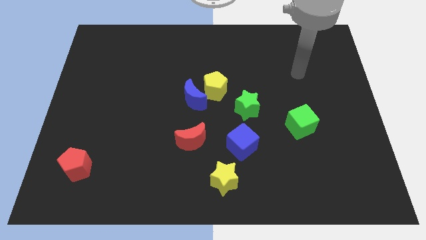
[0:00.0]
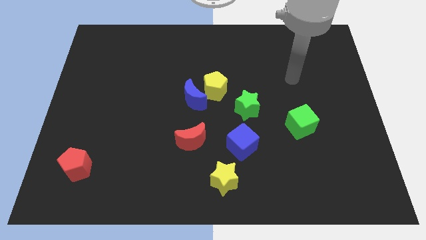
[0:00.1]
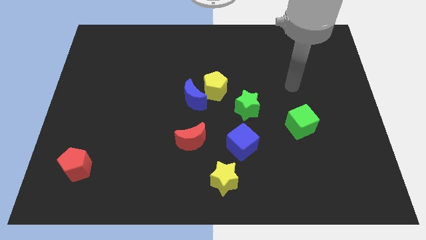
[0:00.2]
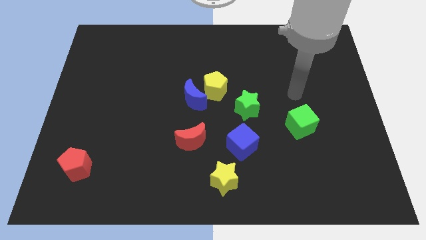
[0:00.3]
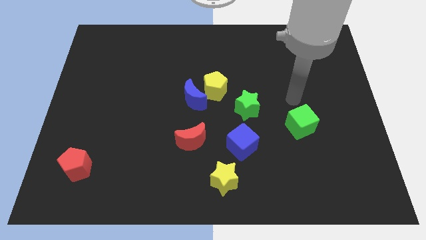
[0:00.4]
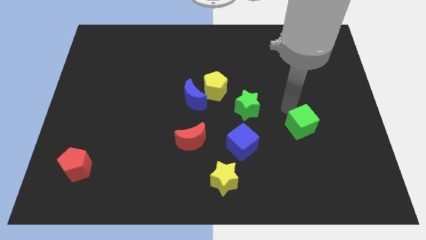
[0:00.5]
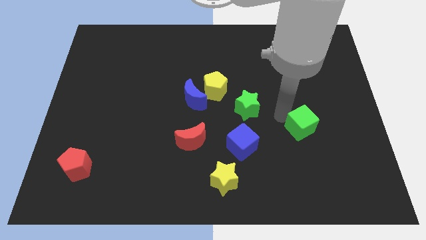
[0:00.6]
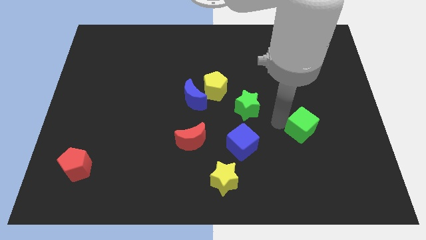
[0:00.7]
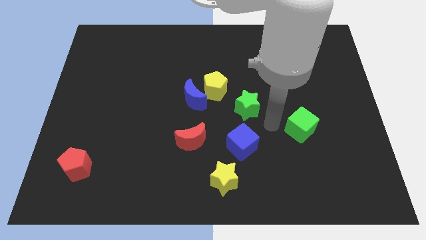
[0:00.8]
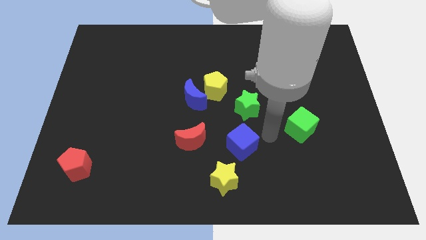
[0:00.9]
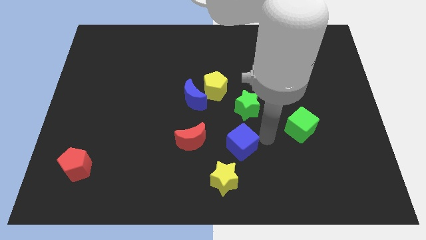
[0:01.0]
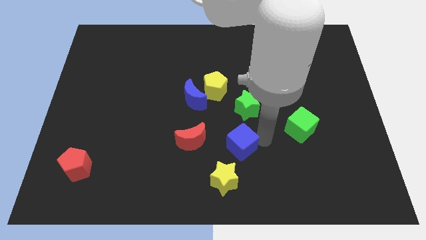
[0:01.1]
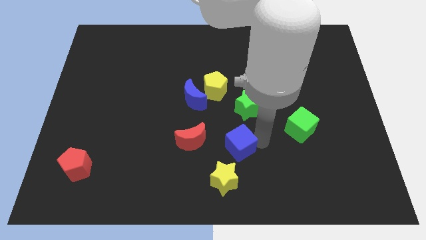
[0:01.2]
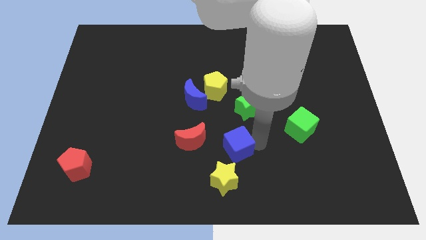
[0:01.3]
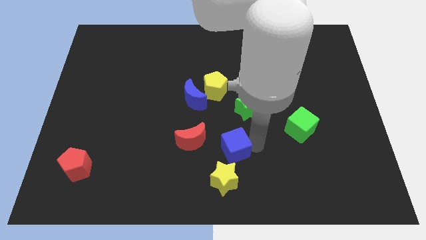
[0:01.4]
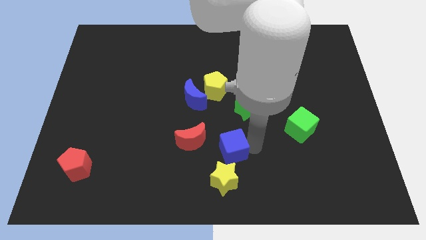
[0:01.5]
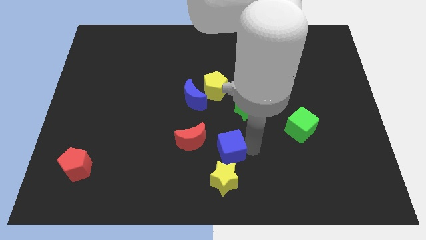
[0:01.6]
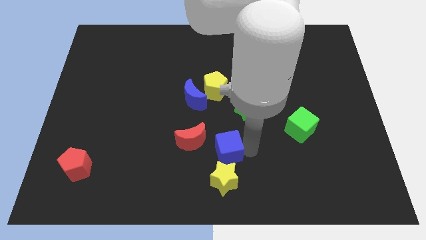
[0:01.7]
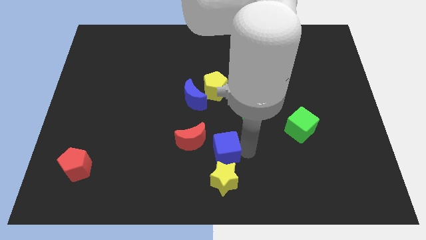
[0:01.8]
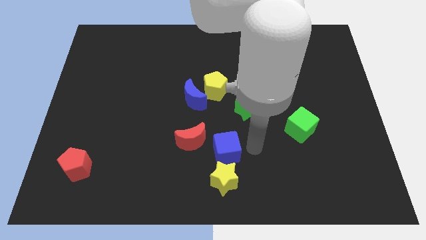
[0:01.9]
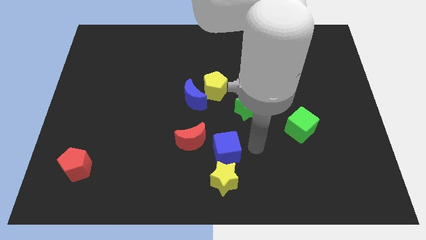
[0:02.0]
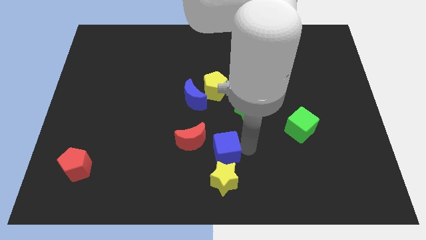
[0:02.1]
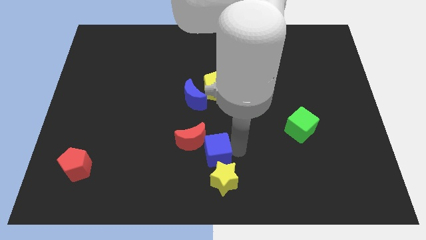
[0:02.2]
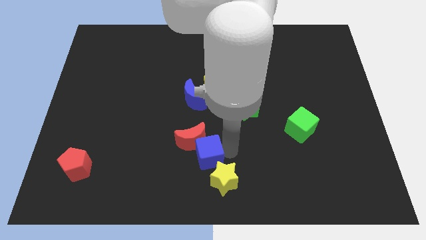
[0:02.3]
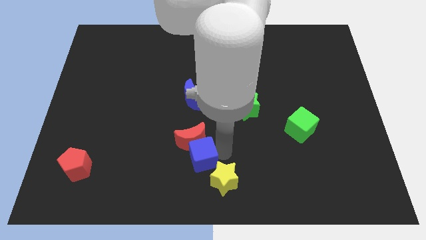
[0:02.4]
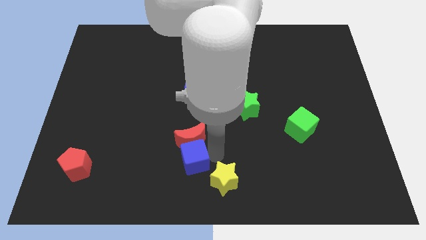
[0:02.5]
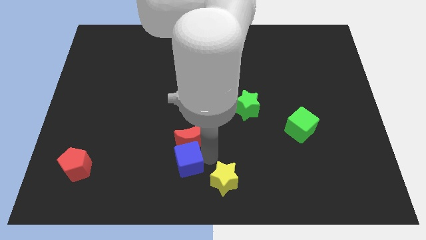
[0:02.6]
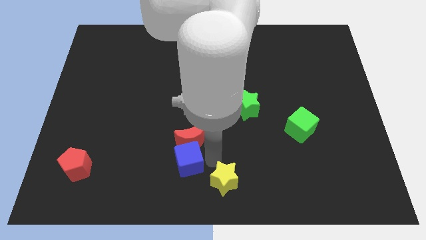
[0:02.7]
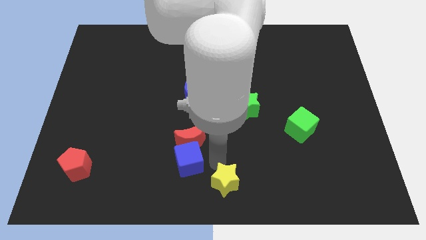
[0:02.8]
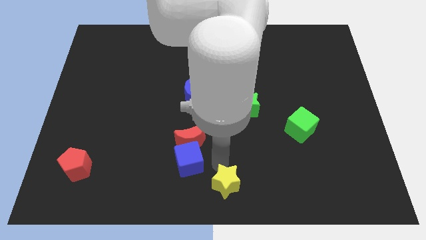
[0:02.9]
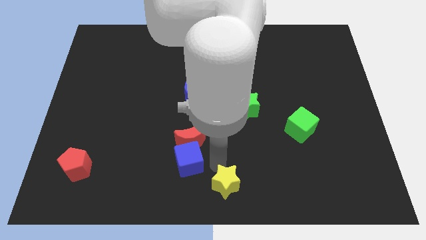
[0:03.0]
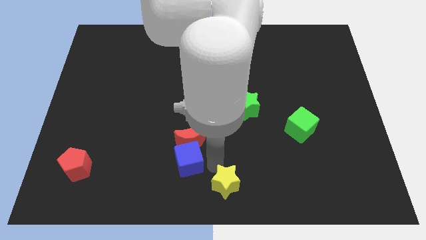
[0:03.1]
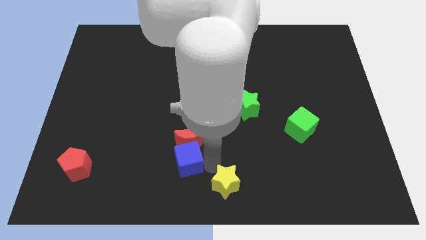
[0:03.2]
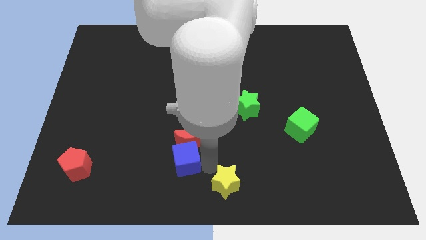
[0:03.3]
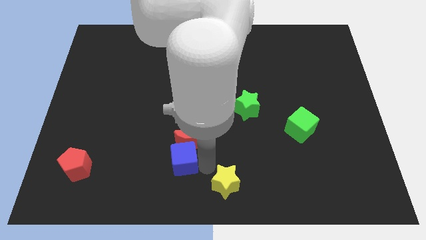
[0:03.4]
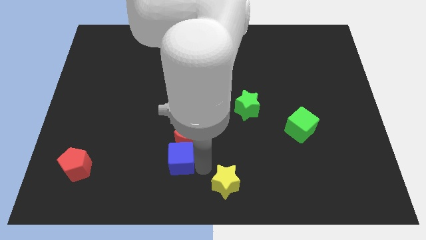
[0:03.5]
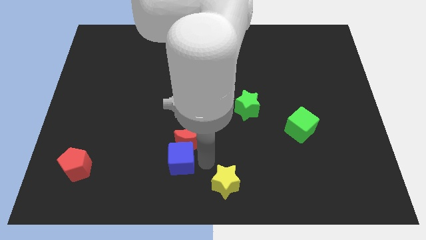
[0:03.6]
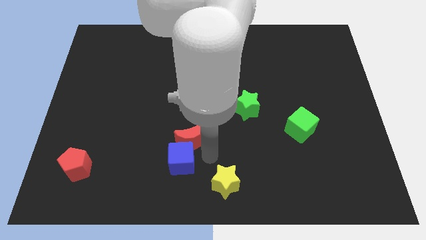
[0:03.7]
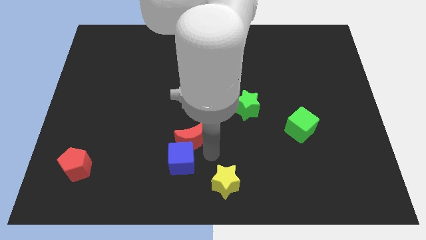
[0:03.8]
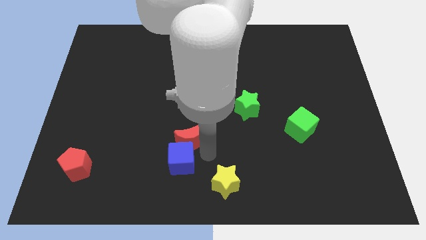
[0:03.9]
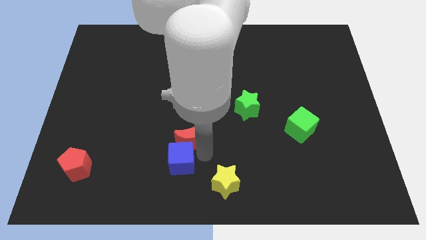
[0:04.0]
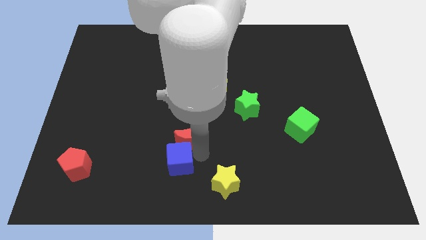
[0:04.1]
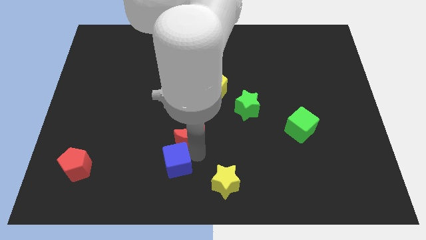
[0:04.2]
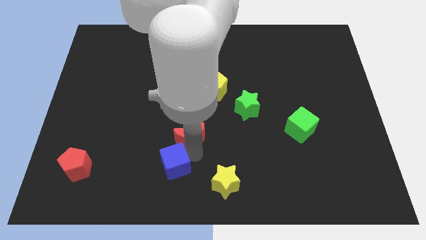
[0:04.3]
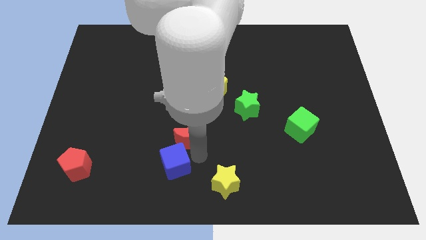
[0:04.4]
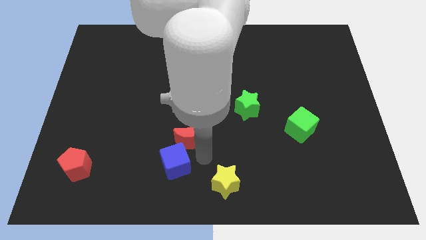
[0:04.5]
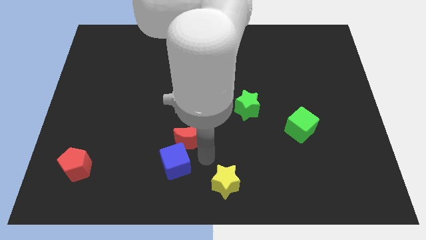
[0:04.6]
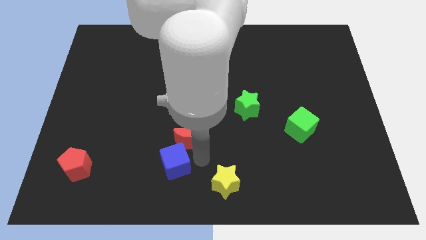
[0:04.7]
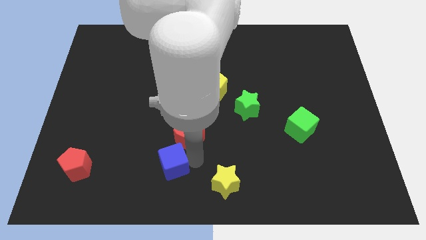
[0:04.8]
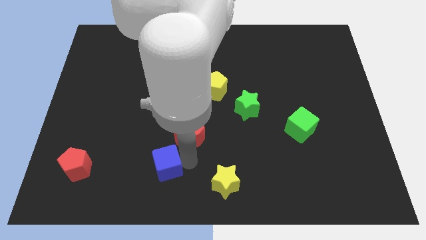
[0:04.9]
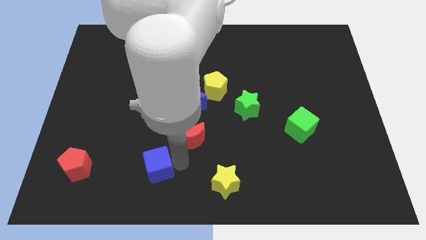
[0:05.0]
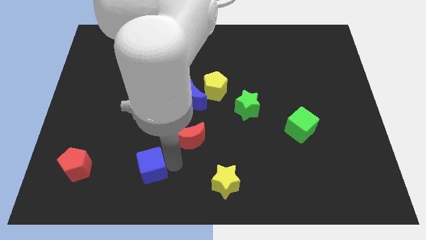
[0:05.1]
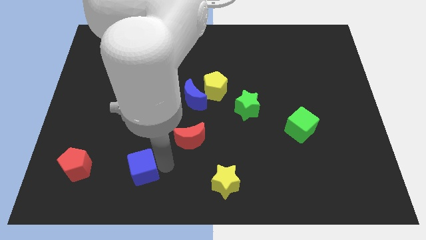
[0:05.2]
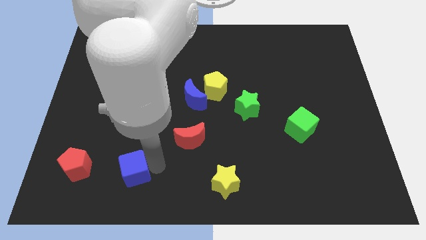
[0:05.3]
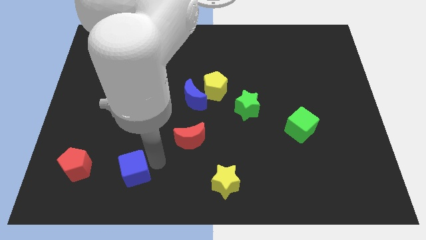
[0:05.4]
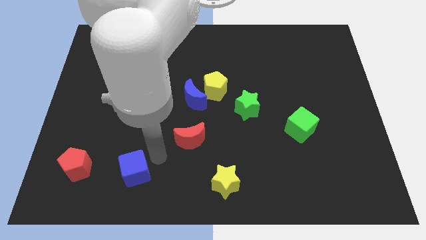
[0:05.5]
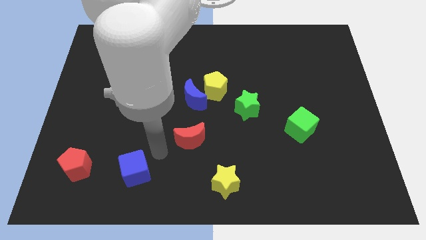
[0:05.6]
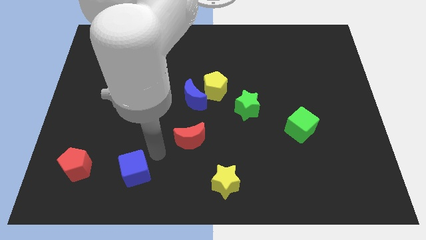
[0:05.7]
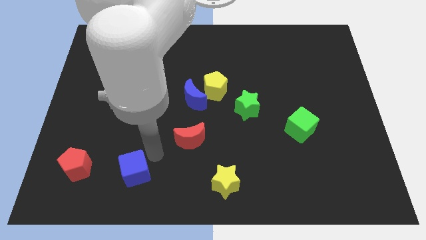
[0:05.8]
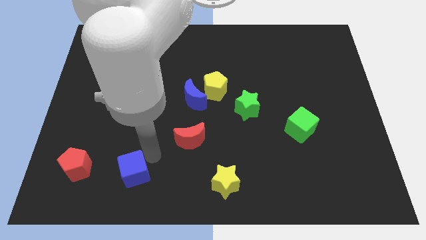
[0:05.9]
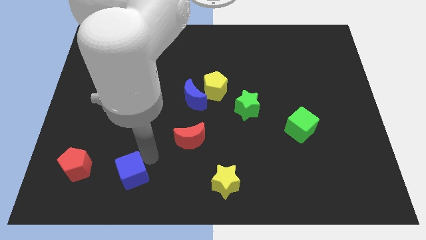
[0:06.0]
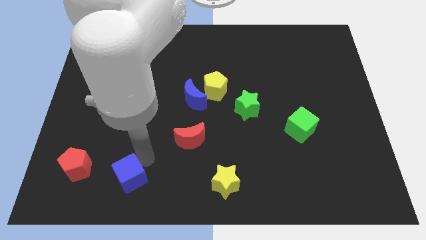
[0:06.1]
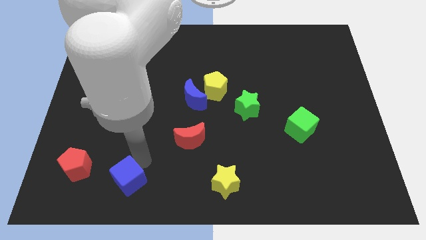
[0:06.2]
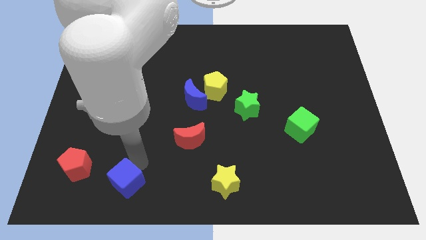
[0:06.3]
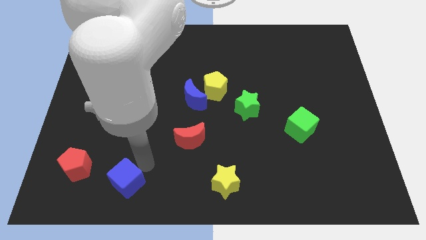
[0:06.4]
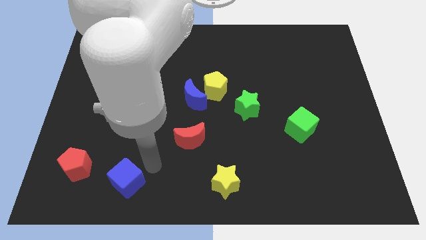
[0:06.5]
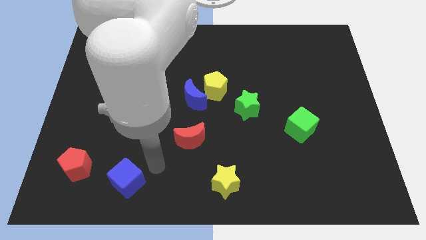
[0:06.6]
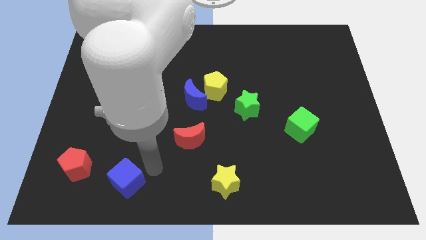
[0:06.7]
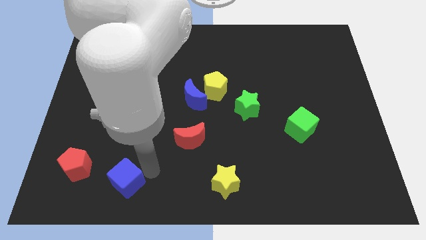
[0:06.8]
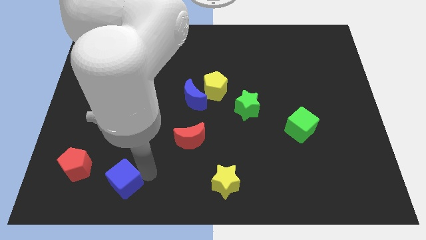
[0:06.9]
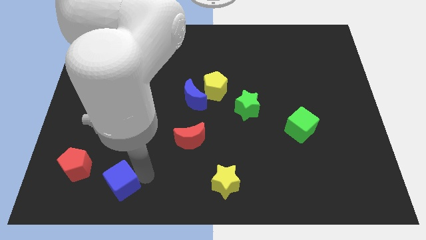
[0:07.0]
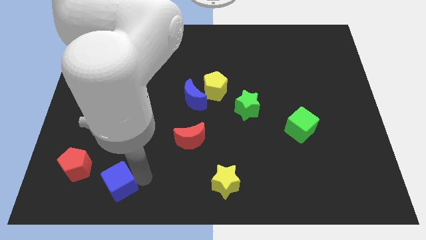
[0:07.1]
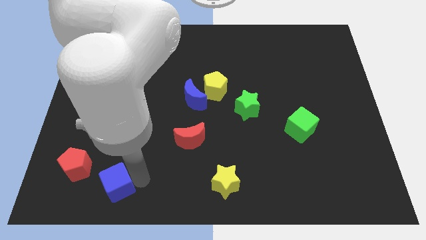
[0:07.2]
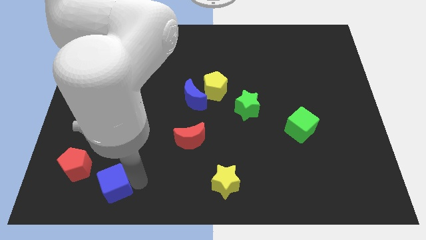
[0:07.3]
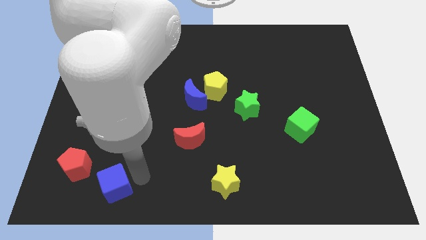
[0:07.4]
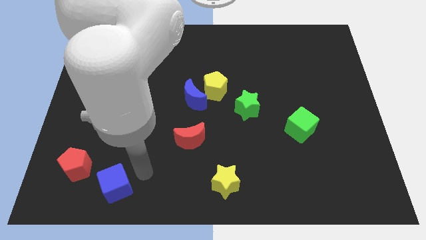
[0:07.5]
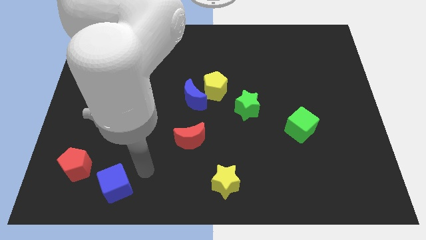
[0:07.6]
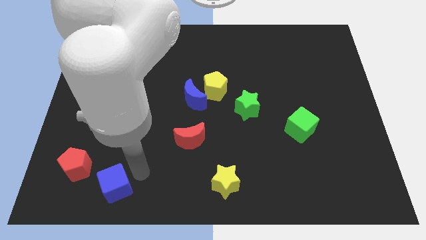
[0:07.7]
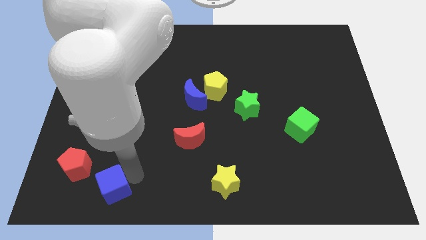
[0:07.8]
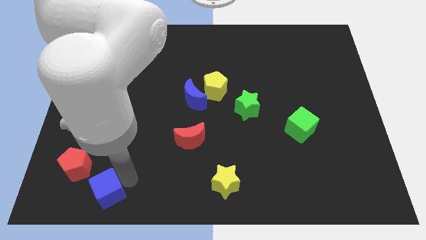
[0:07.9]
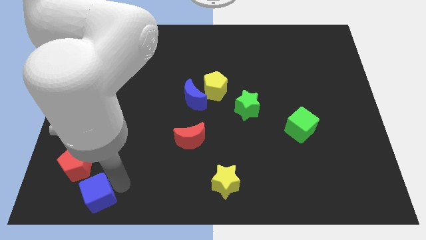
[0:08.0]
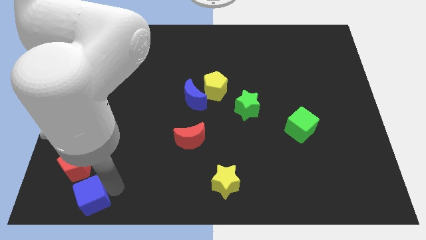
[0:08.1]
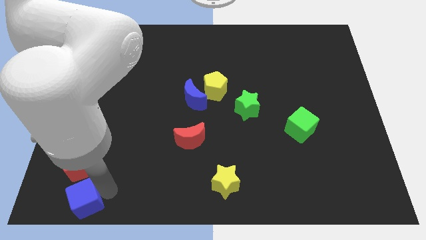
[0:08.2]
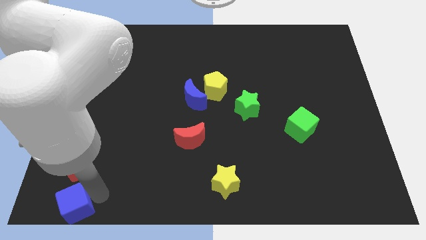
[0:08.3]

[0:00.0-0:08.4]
put the blue cube to the bottom left of the board
